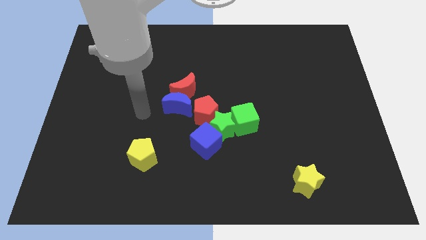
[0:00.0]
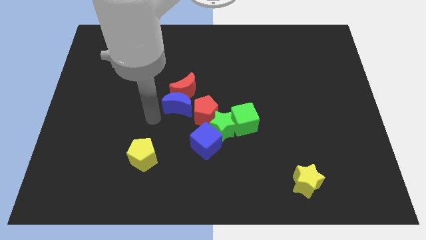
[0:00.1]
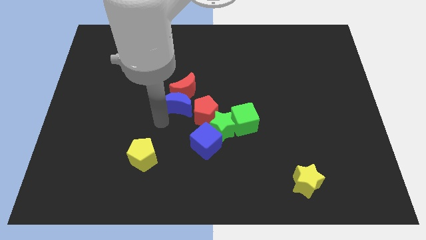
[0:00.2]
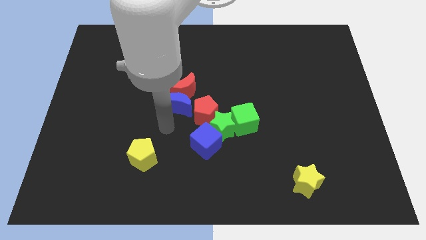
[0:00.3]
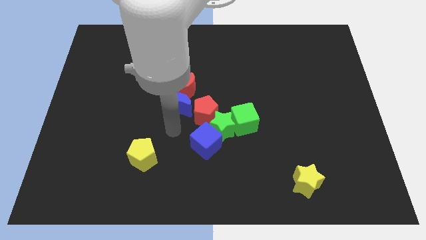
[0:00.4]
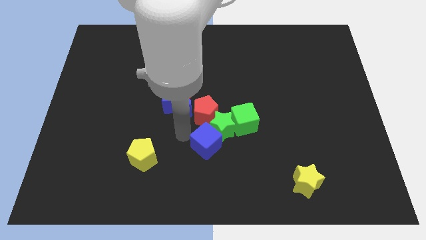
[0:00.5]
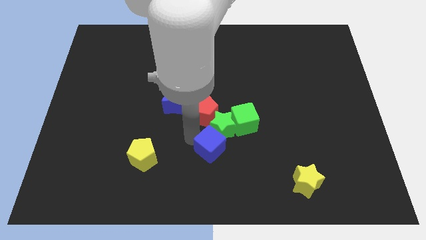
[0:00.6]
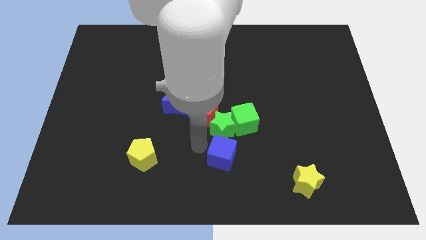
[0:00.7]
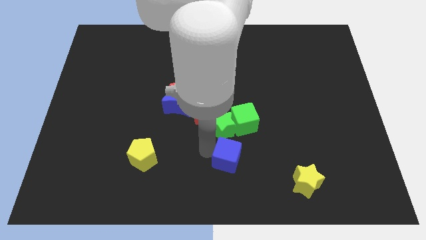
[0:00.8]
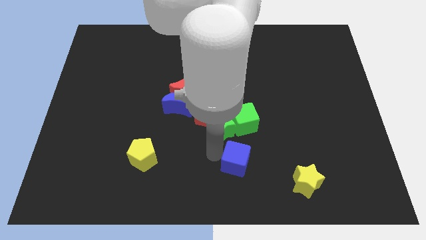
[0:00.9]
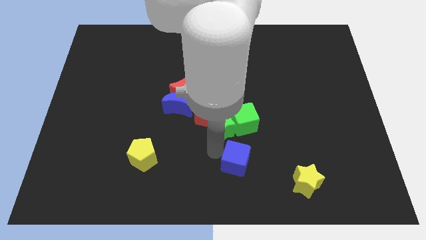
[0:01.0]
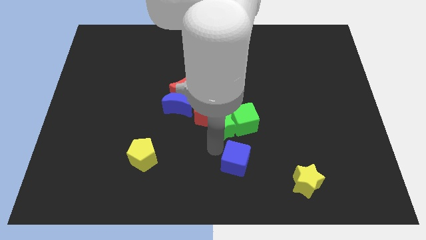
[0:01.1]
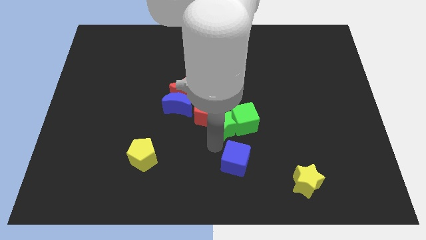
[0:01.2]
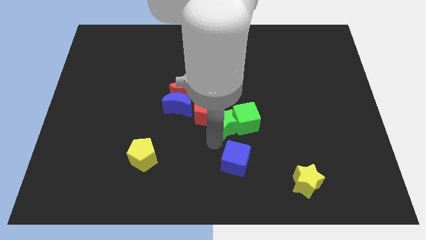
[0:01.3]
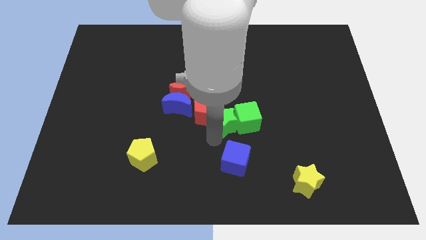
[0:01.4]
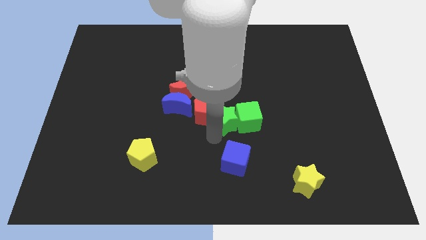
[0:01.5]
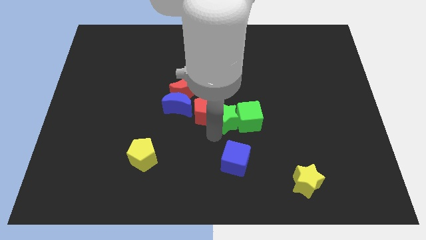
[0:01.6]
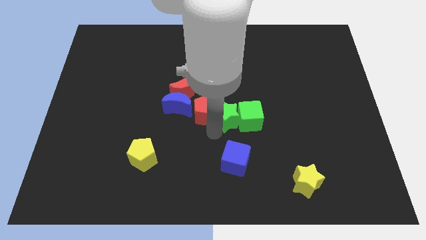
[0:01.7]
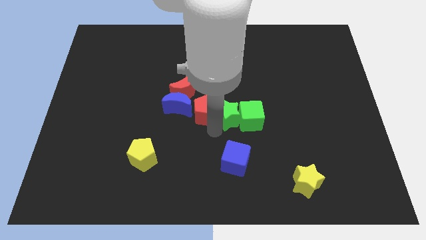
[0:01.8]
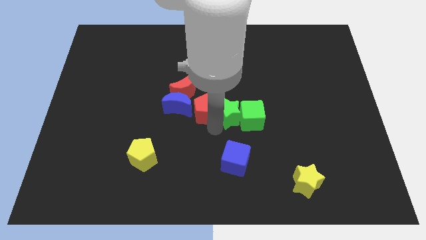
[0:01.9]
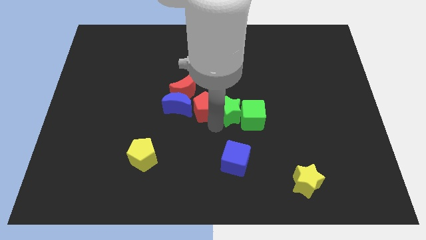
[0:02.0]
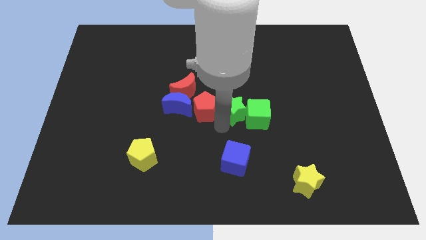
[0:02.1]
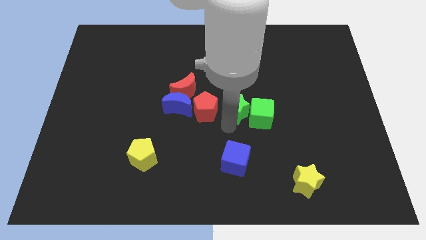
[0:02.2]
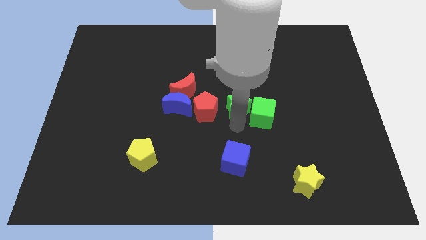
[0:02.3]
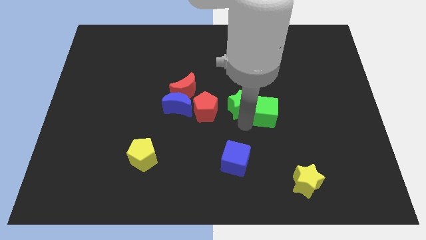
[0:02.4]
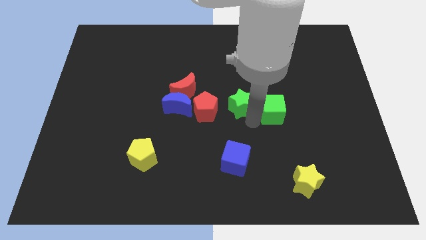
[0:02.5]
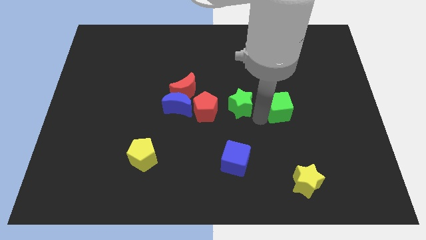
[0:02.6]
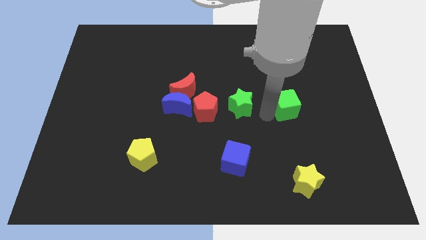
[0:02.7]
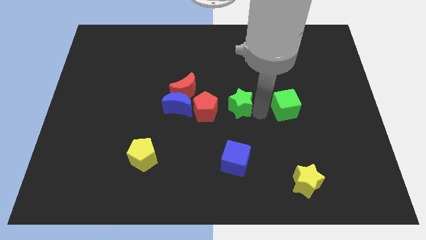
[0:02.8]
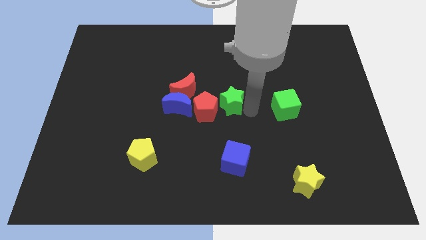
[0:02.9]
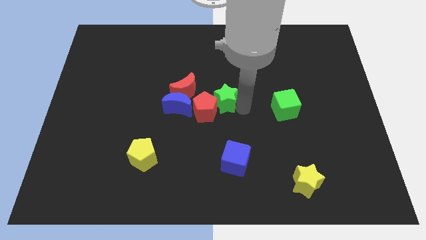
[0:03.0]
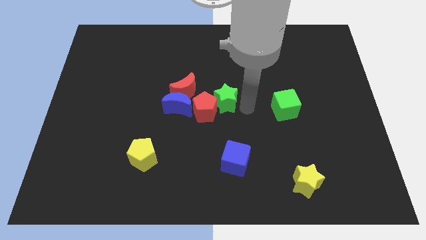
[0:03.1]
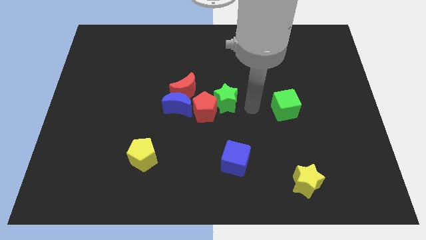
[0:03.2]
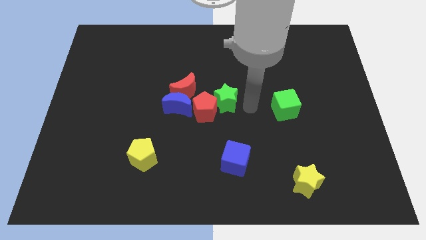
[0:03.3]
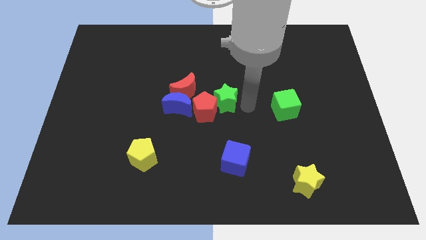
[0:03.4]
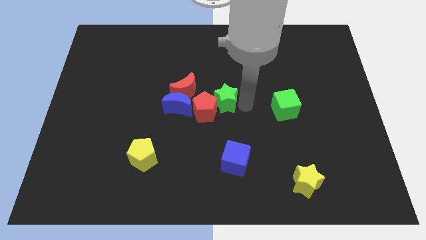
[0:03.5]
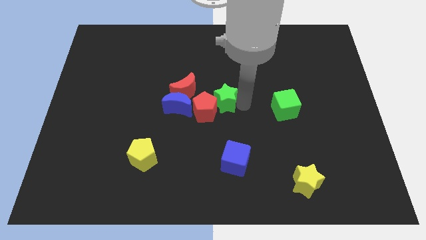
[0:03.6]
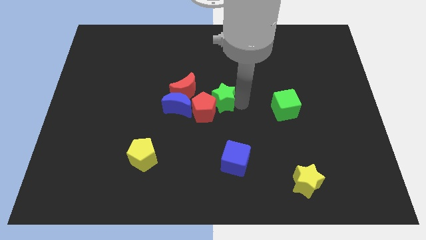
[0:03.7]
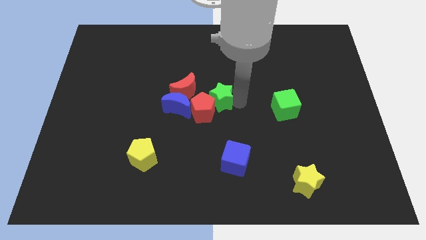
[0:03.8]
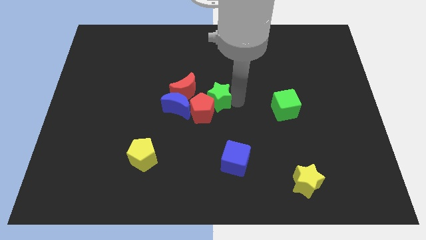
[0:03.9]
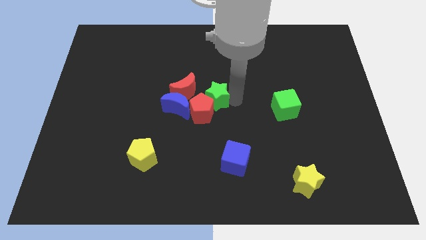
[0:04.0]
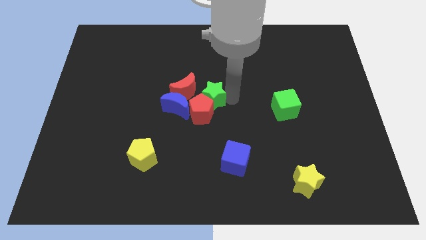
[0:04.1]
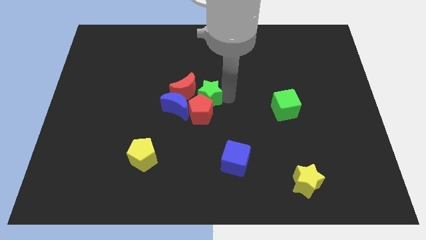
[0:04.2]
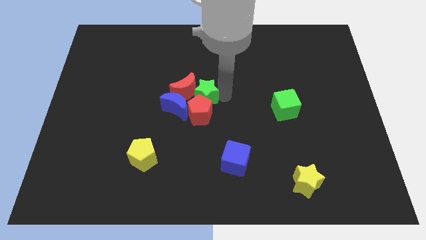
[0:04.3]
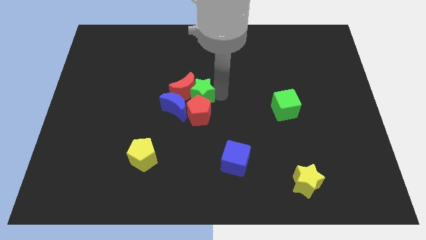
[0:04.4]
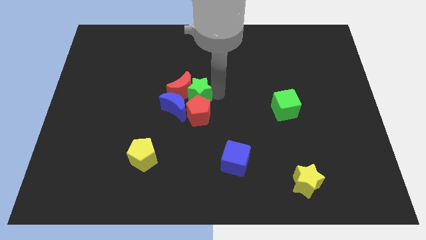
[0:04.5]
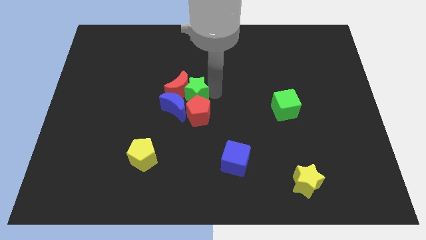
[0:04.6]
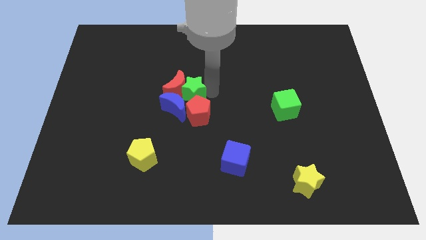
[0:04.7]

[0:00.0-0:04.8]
push the green star close to the blue moon

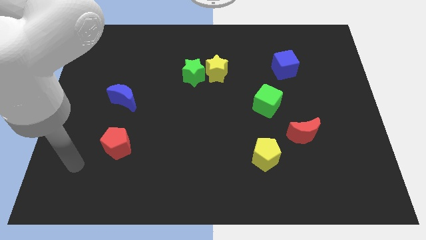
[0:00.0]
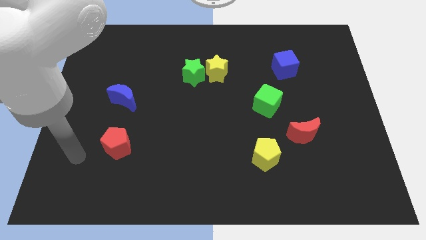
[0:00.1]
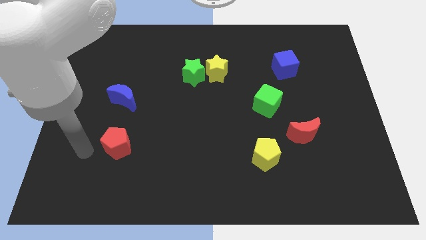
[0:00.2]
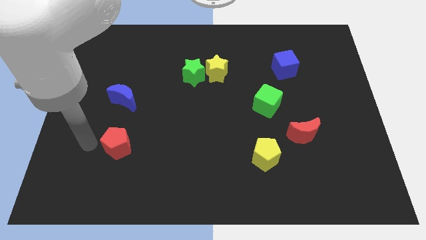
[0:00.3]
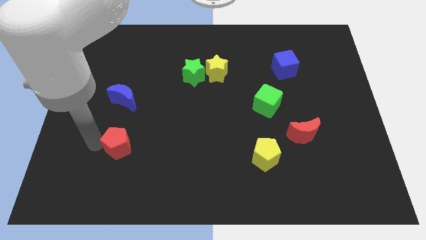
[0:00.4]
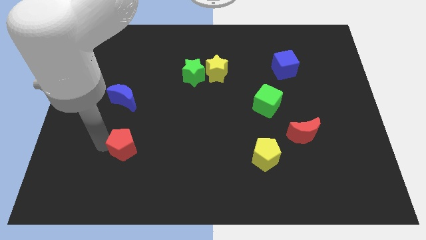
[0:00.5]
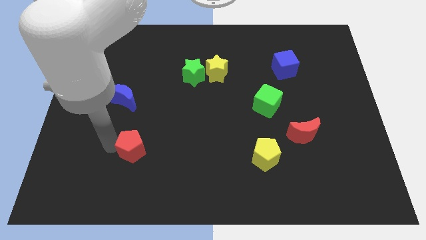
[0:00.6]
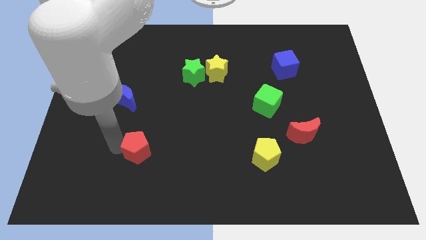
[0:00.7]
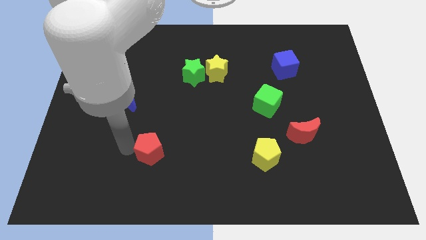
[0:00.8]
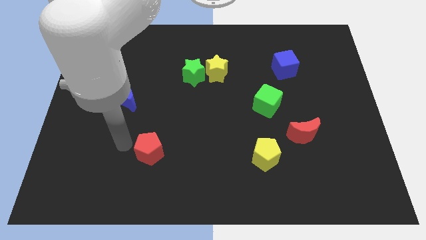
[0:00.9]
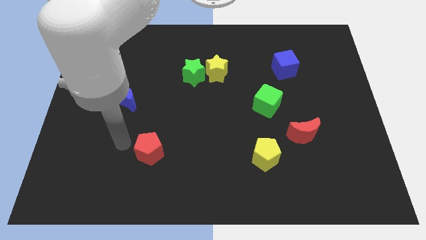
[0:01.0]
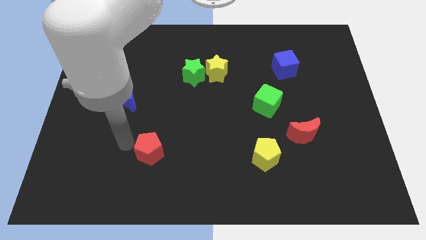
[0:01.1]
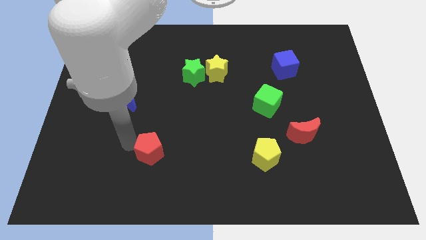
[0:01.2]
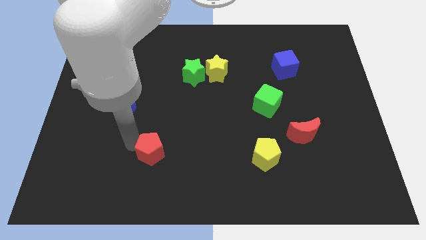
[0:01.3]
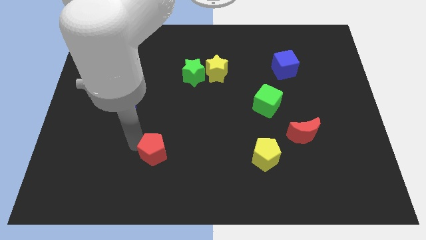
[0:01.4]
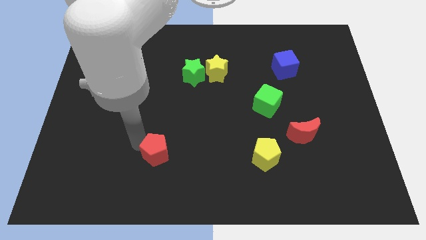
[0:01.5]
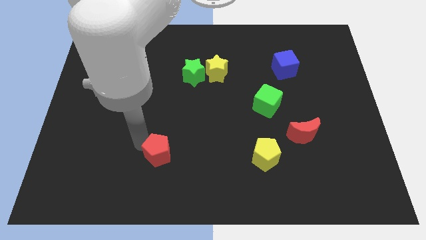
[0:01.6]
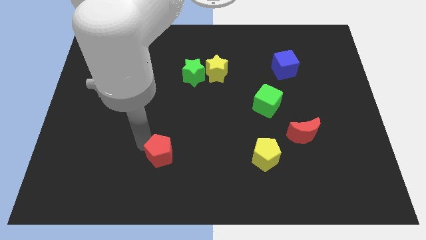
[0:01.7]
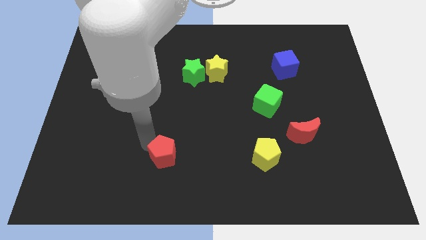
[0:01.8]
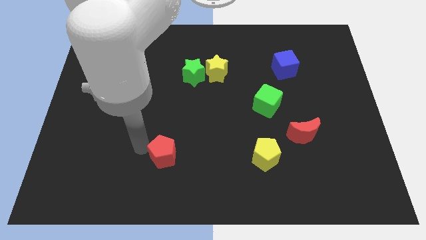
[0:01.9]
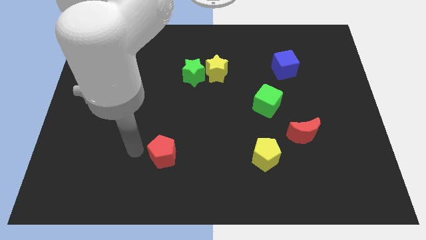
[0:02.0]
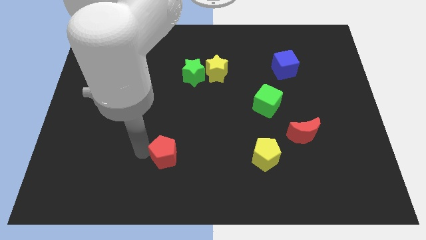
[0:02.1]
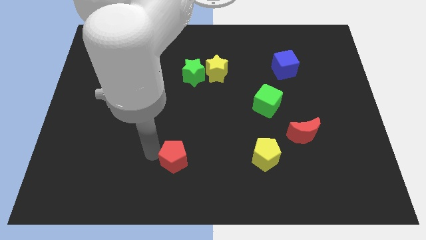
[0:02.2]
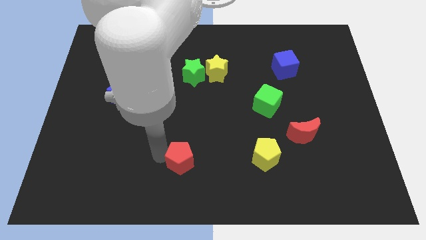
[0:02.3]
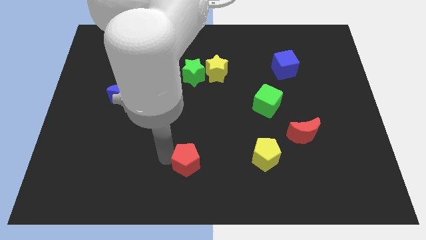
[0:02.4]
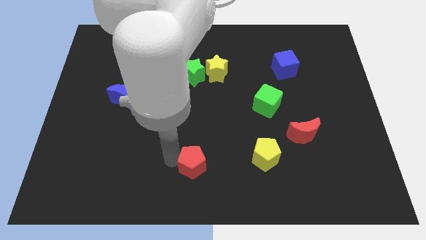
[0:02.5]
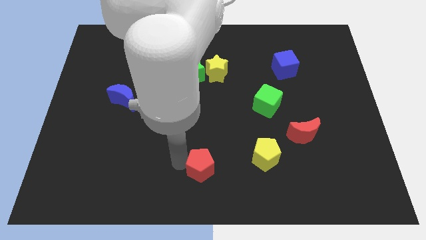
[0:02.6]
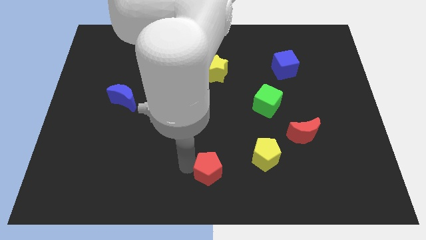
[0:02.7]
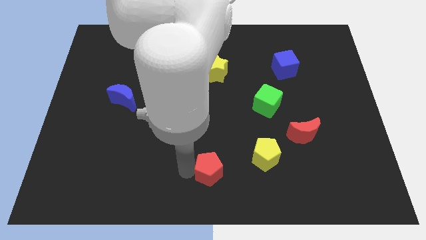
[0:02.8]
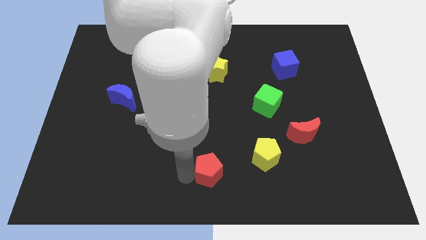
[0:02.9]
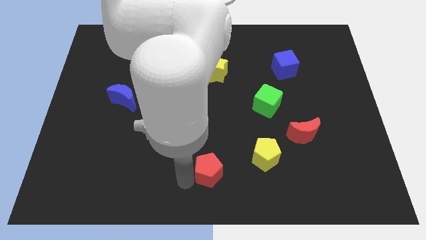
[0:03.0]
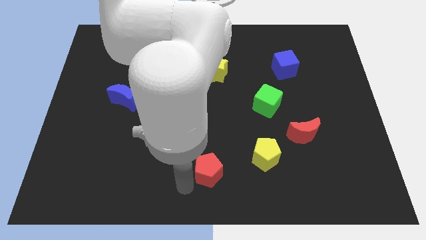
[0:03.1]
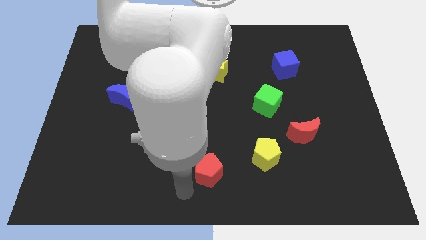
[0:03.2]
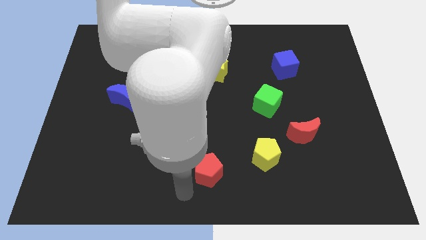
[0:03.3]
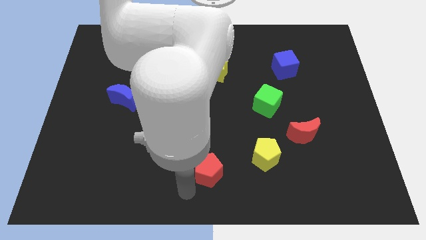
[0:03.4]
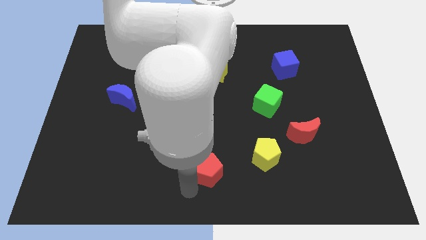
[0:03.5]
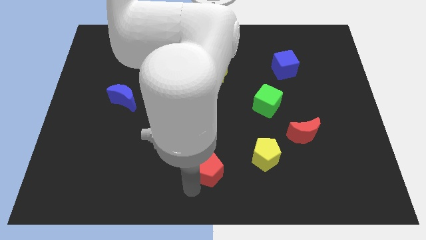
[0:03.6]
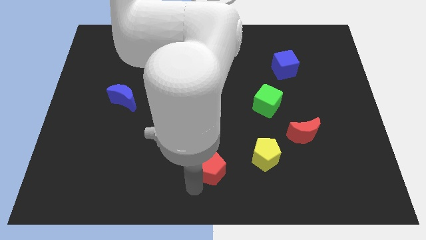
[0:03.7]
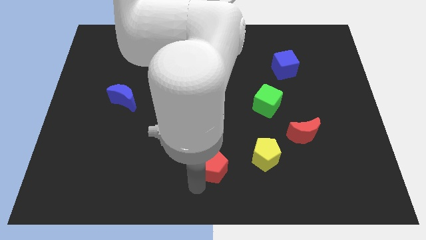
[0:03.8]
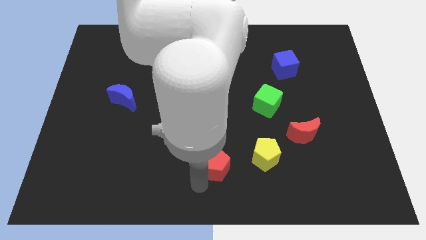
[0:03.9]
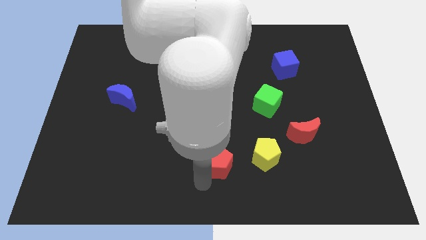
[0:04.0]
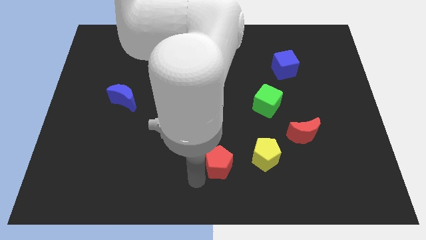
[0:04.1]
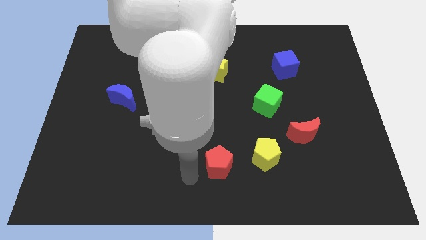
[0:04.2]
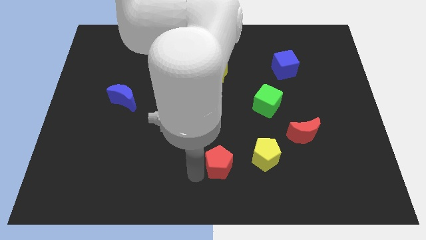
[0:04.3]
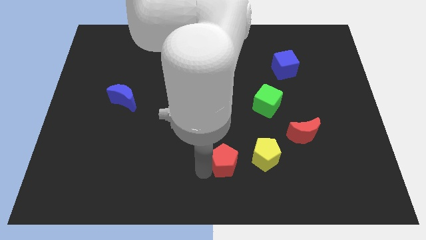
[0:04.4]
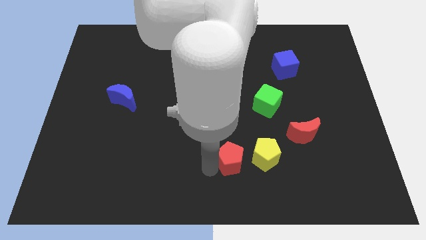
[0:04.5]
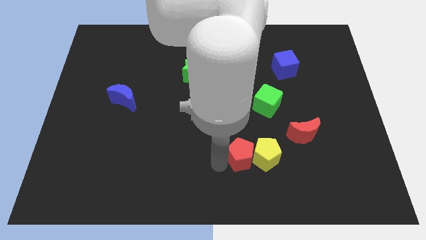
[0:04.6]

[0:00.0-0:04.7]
slide the red pentagon to the yellow pentagon
